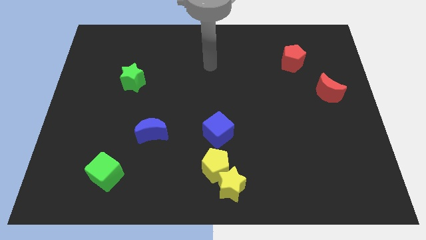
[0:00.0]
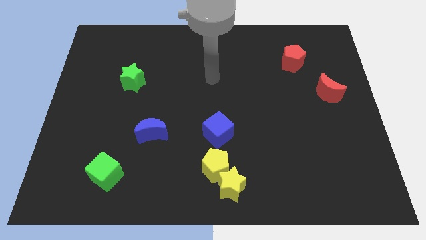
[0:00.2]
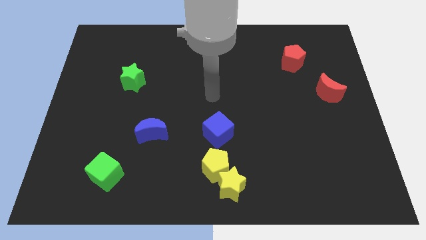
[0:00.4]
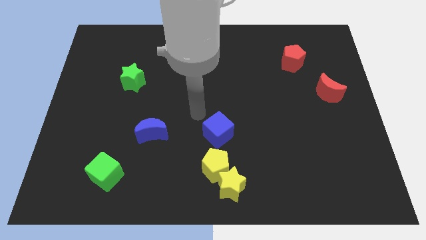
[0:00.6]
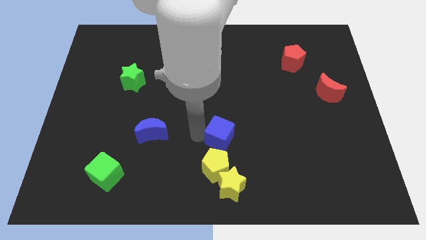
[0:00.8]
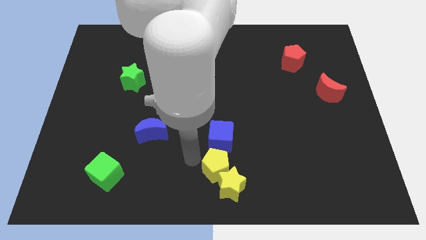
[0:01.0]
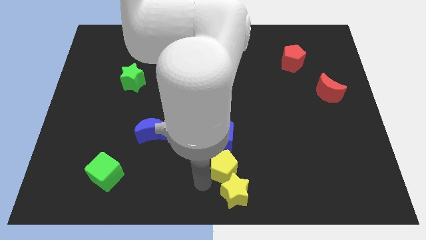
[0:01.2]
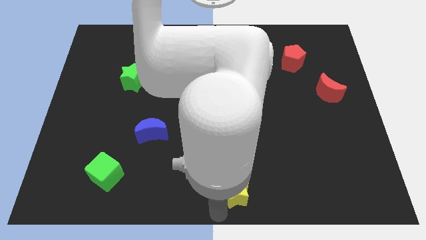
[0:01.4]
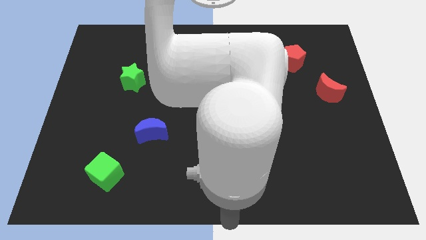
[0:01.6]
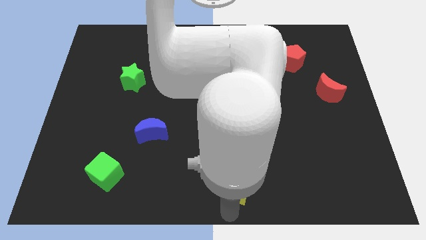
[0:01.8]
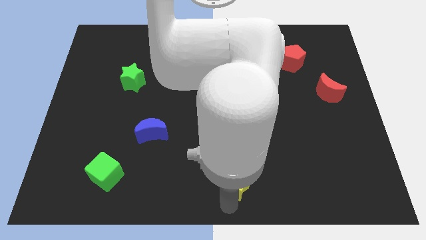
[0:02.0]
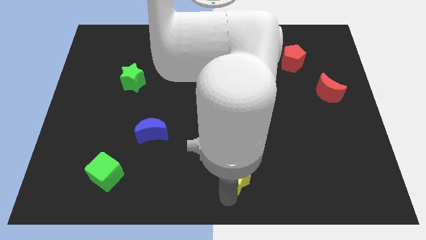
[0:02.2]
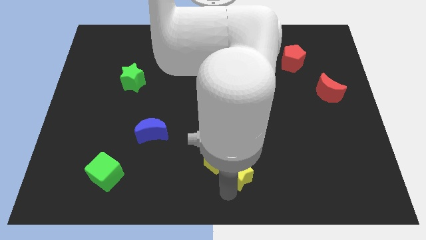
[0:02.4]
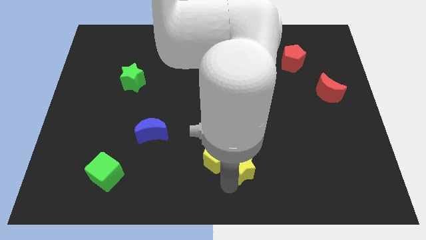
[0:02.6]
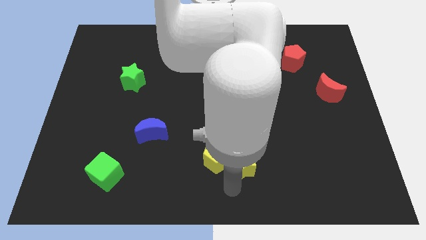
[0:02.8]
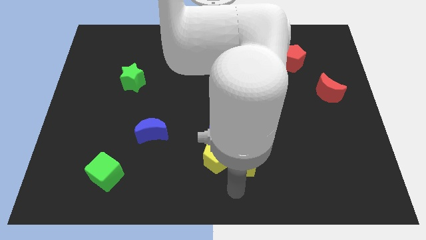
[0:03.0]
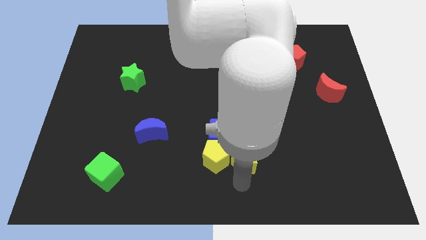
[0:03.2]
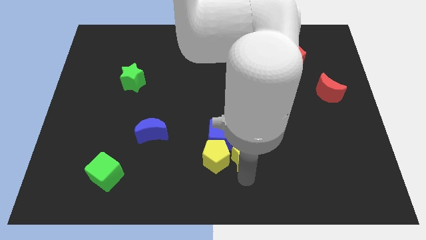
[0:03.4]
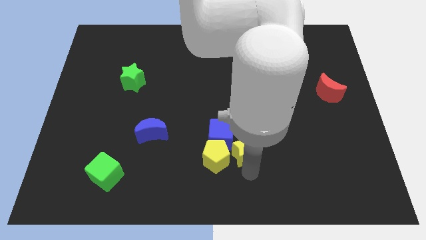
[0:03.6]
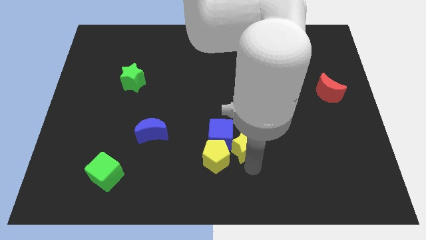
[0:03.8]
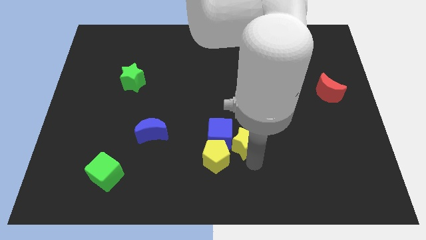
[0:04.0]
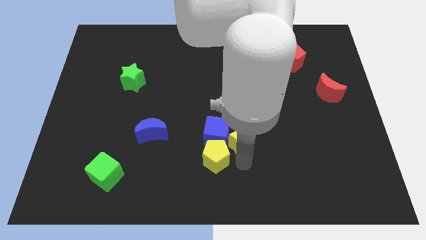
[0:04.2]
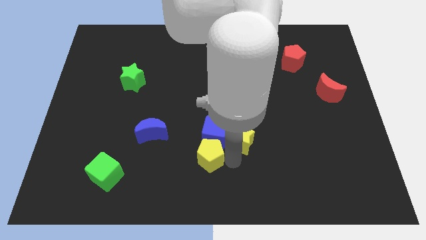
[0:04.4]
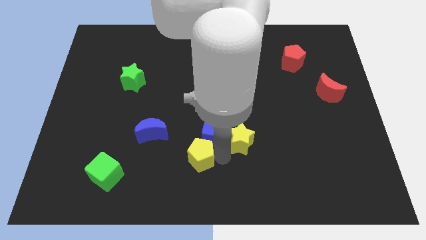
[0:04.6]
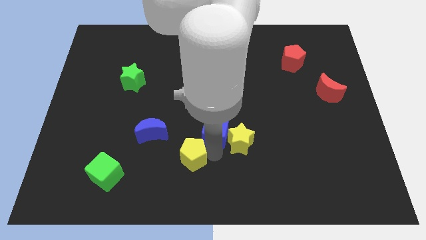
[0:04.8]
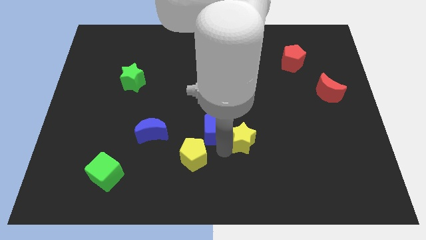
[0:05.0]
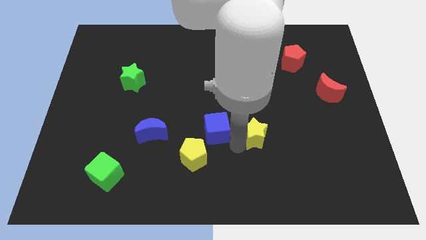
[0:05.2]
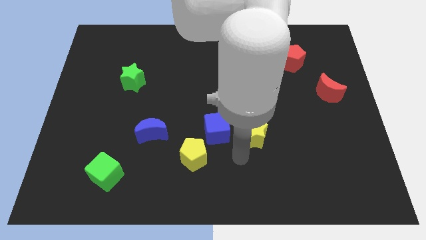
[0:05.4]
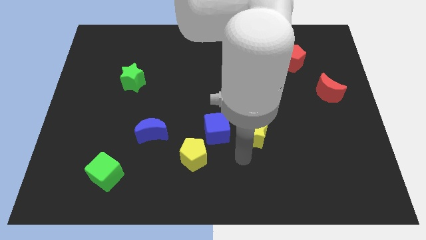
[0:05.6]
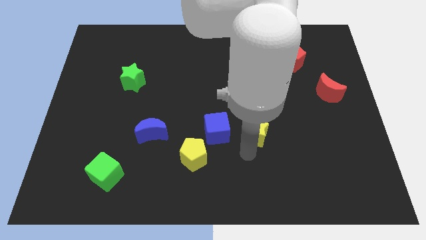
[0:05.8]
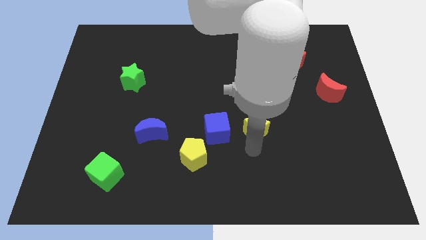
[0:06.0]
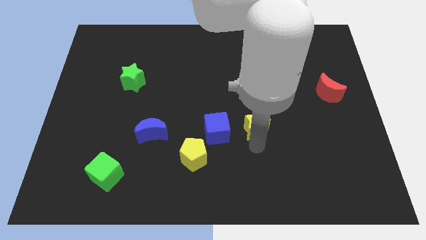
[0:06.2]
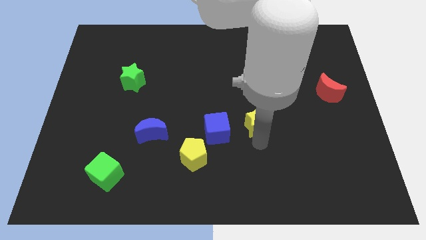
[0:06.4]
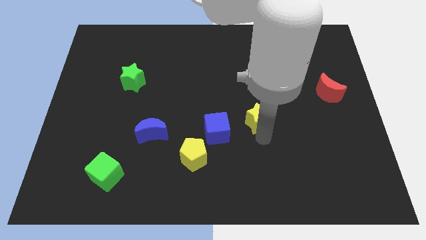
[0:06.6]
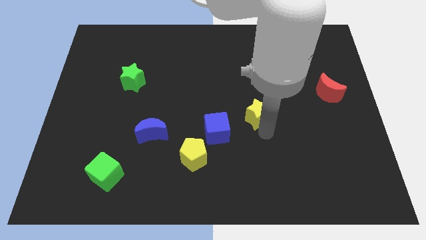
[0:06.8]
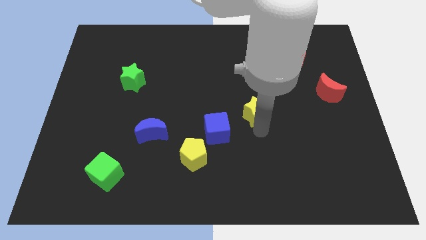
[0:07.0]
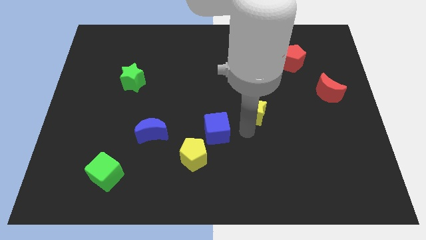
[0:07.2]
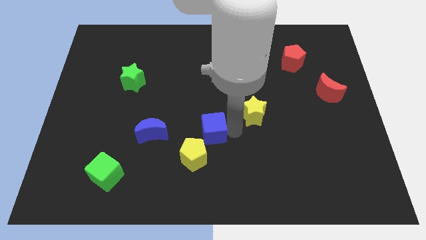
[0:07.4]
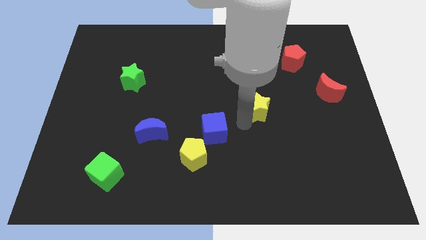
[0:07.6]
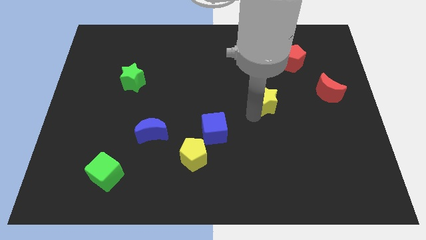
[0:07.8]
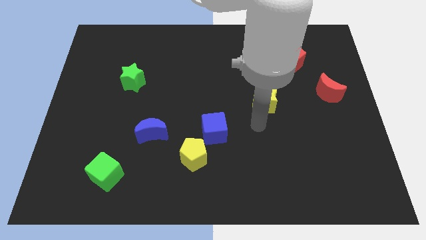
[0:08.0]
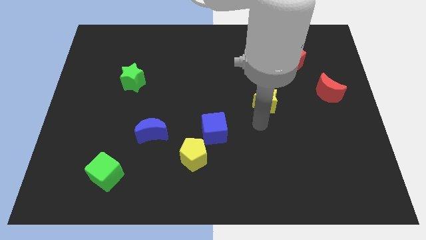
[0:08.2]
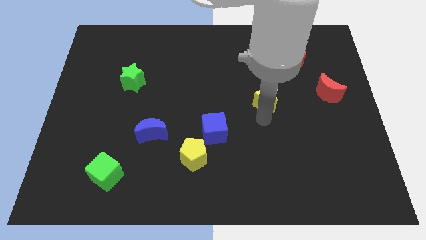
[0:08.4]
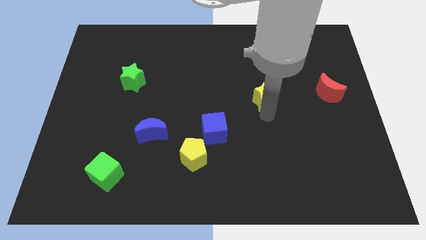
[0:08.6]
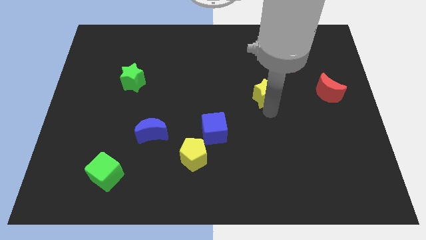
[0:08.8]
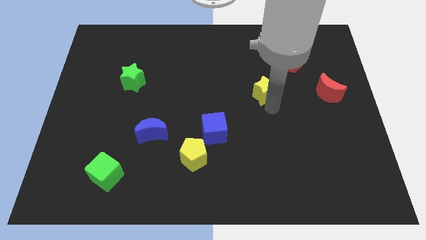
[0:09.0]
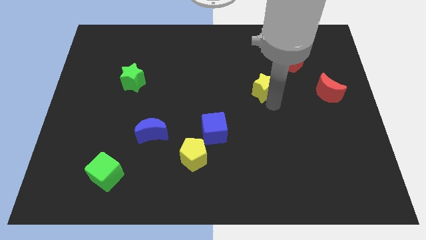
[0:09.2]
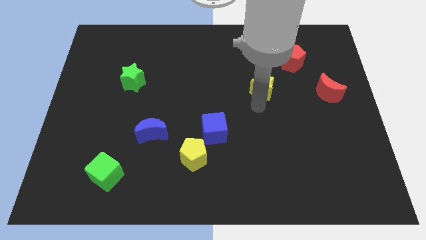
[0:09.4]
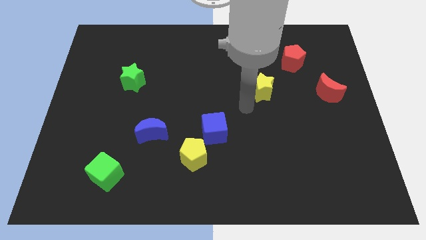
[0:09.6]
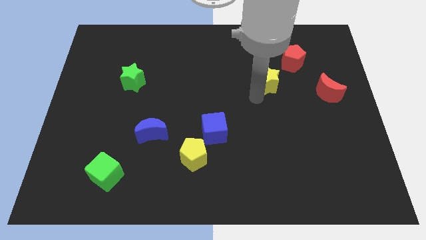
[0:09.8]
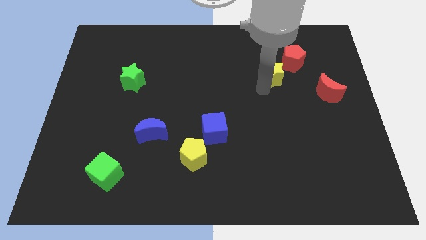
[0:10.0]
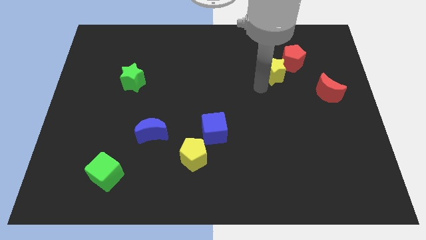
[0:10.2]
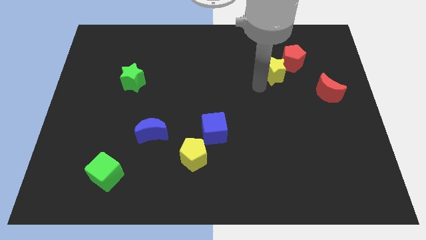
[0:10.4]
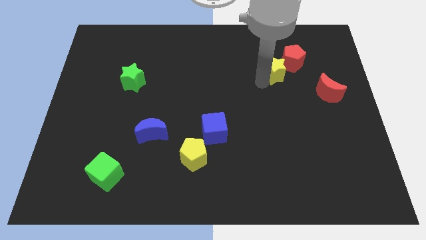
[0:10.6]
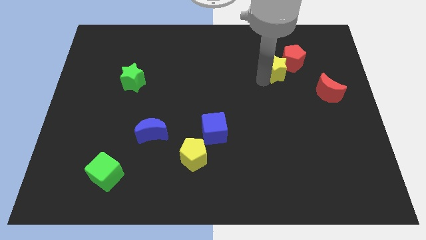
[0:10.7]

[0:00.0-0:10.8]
push the yellow star close to the red pentagon

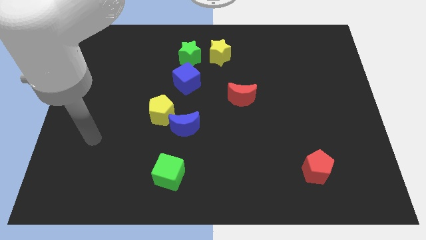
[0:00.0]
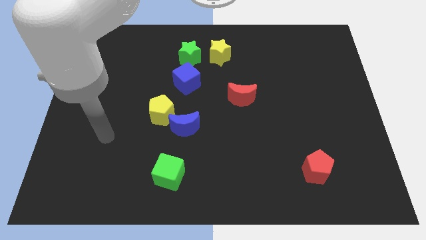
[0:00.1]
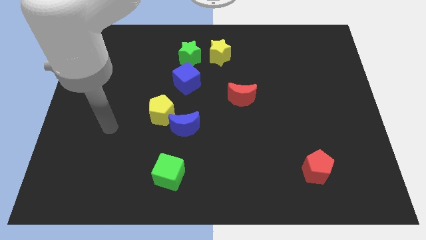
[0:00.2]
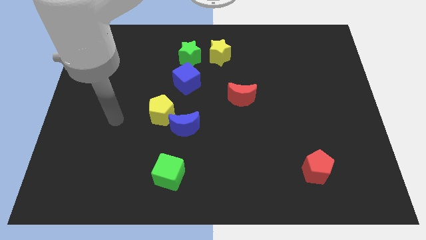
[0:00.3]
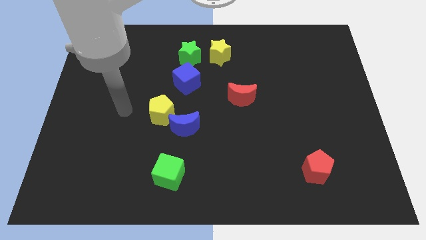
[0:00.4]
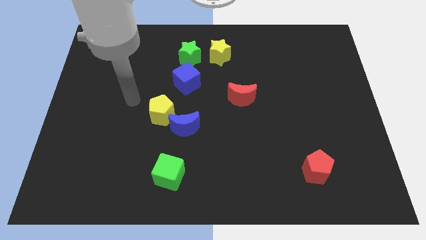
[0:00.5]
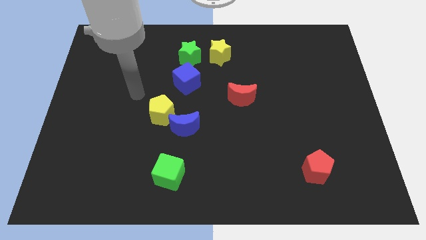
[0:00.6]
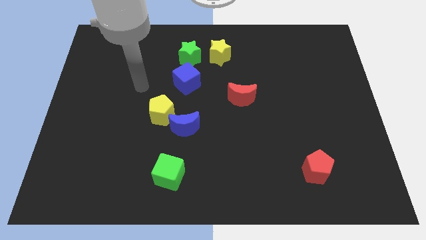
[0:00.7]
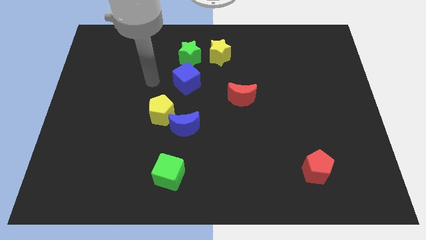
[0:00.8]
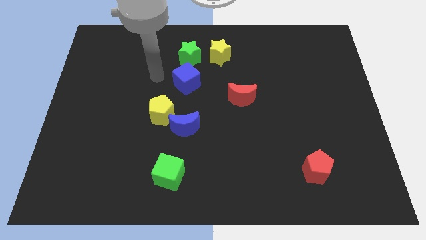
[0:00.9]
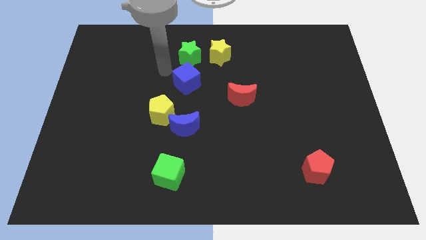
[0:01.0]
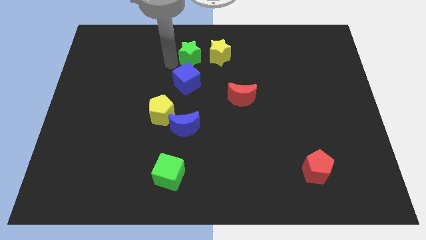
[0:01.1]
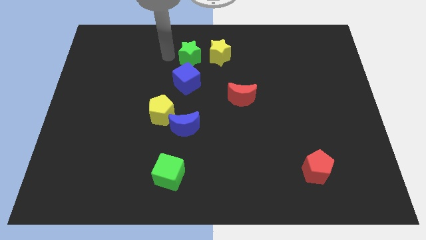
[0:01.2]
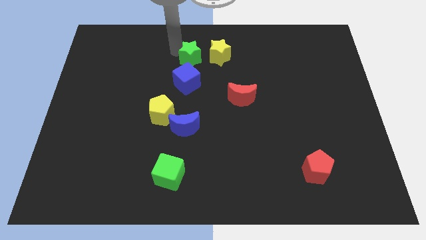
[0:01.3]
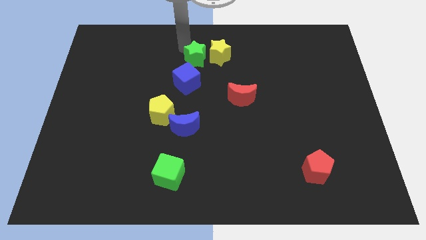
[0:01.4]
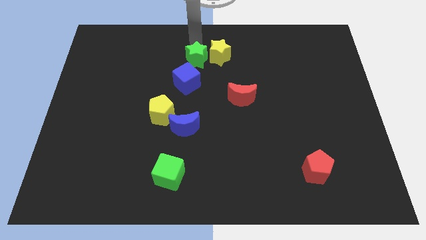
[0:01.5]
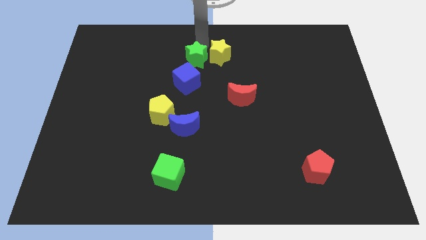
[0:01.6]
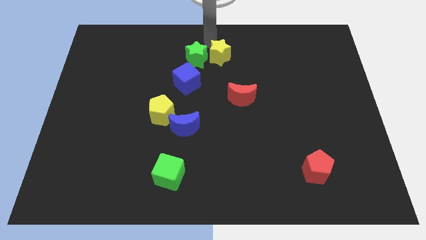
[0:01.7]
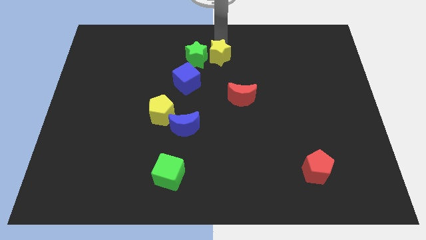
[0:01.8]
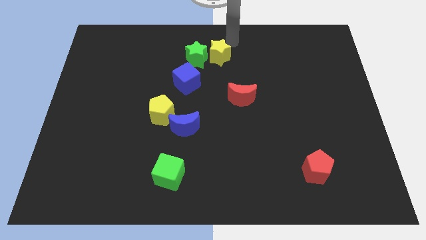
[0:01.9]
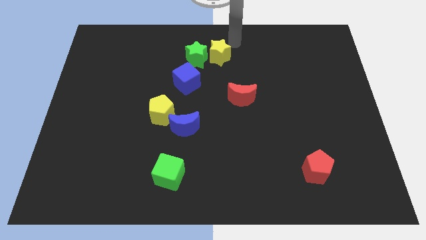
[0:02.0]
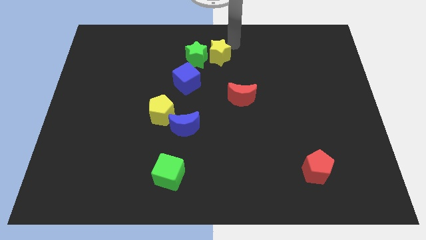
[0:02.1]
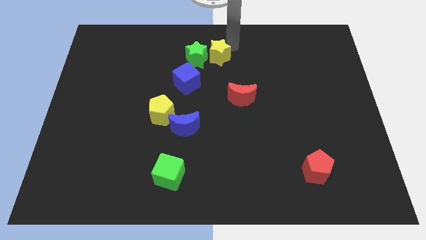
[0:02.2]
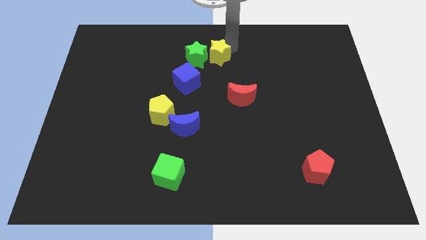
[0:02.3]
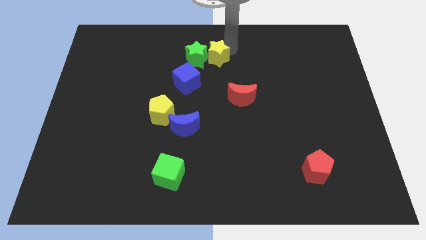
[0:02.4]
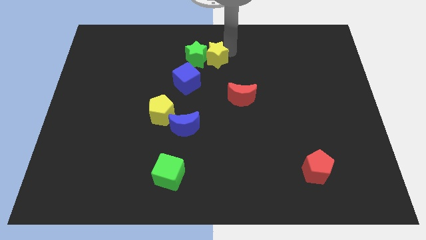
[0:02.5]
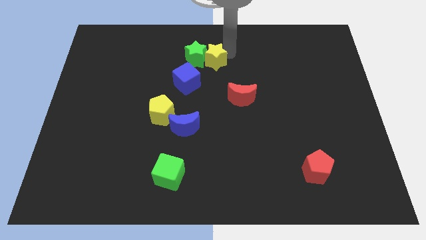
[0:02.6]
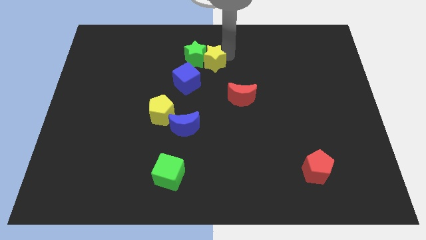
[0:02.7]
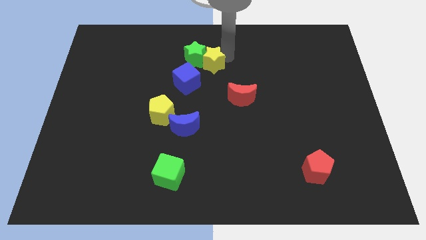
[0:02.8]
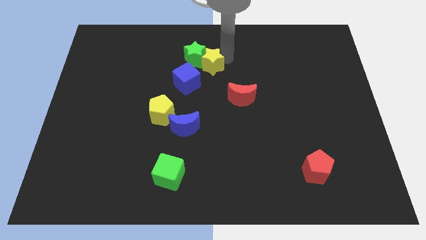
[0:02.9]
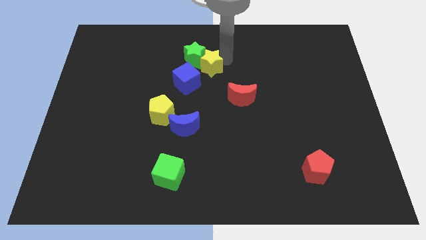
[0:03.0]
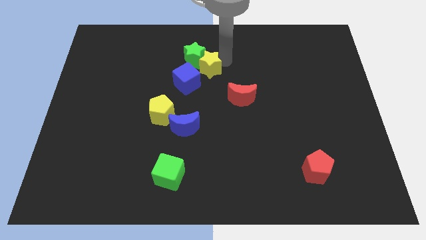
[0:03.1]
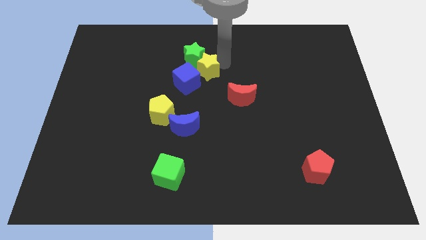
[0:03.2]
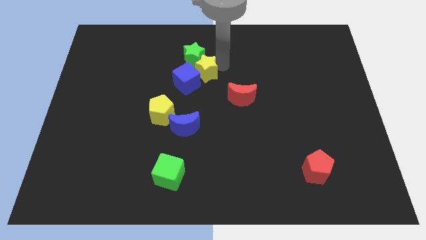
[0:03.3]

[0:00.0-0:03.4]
move the yellow star next to the blue cube
